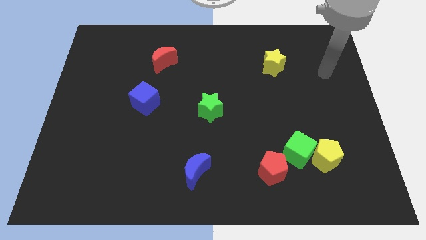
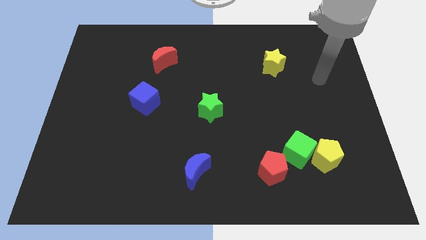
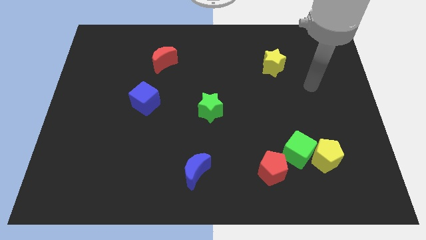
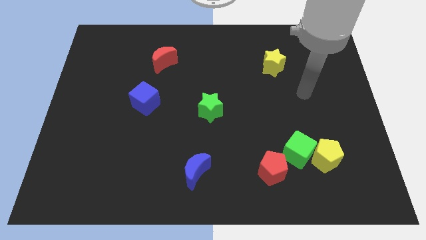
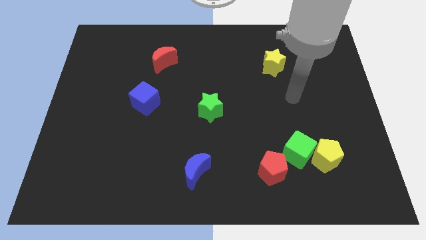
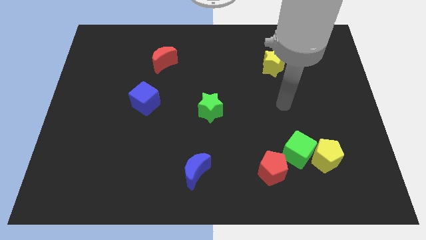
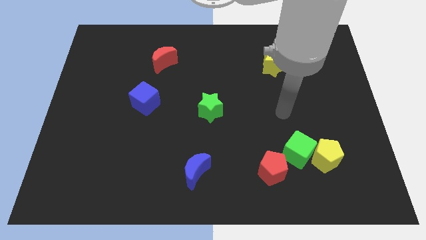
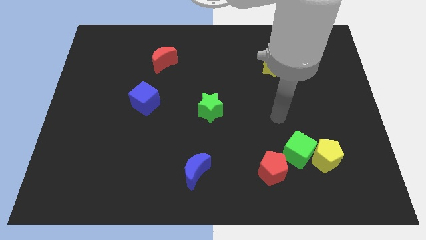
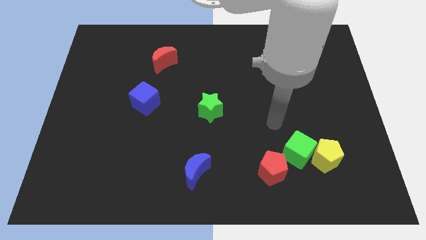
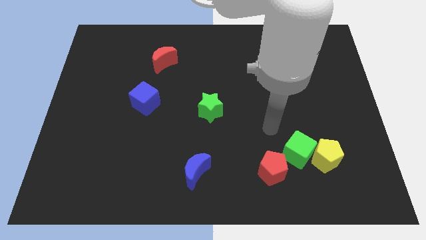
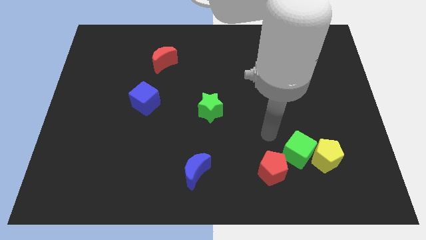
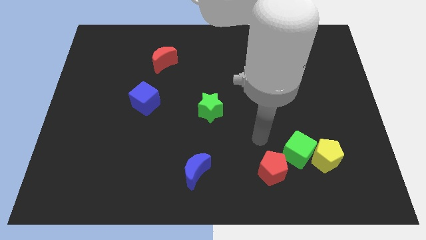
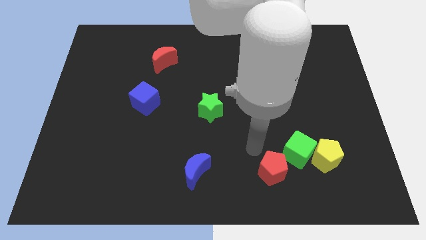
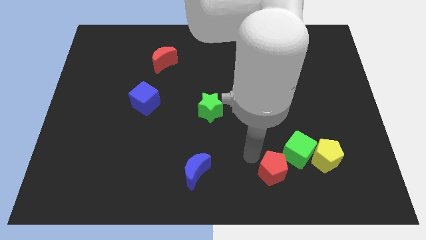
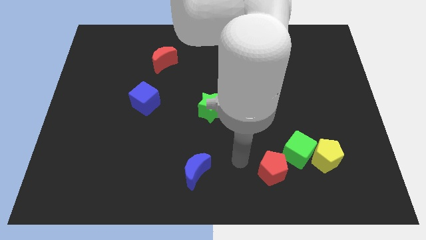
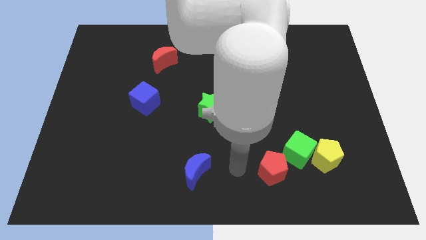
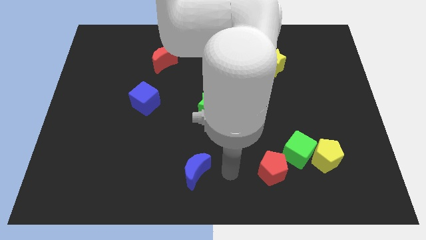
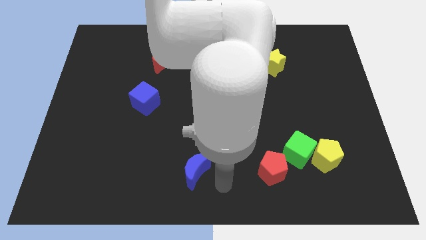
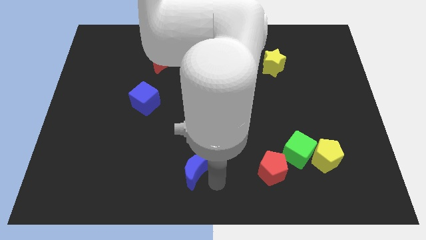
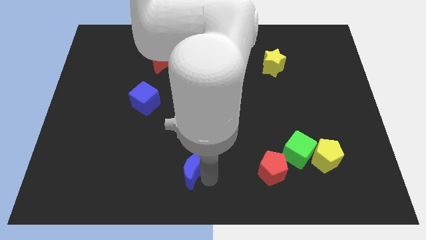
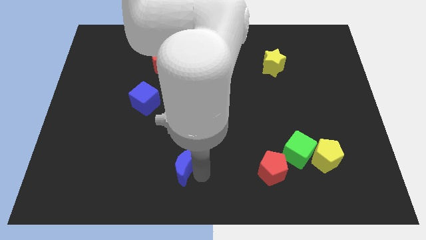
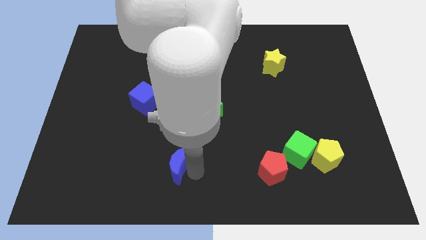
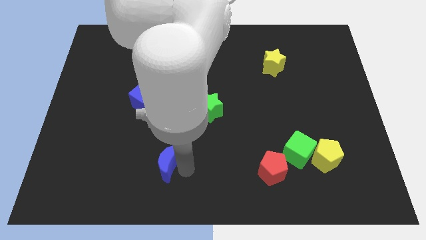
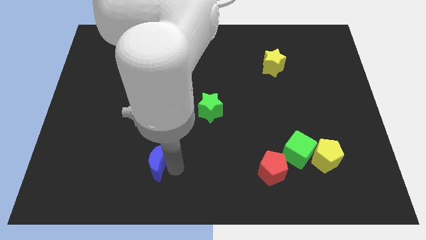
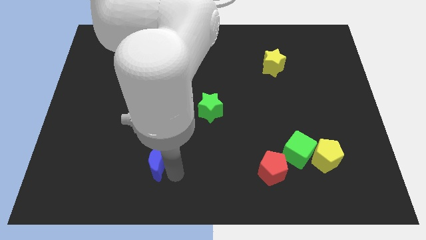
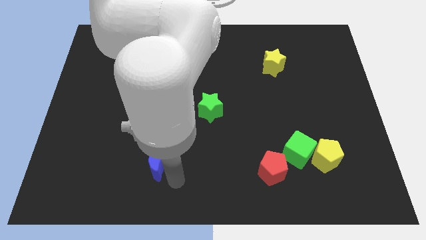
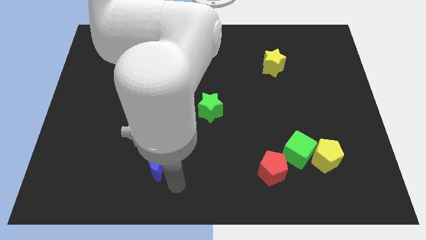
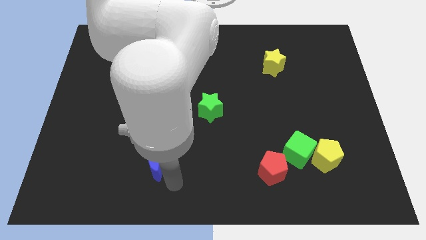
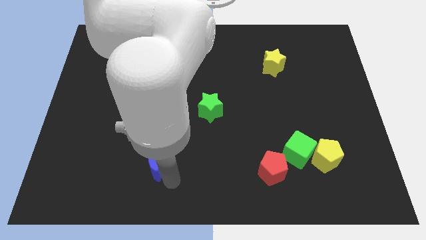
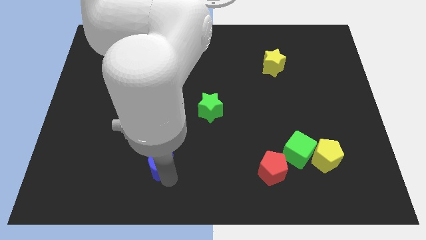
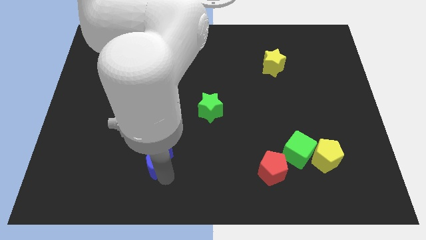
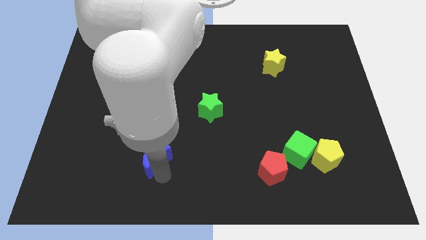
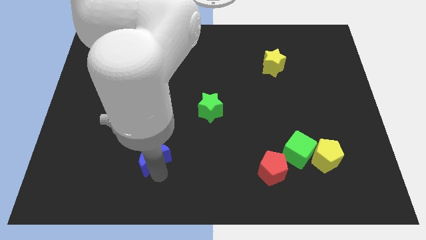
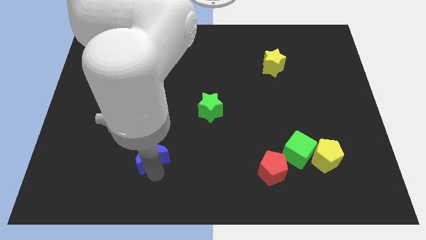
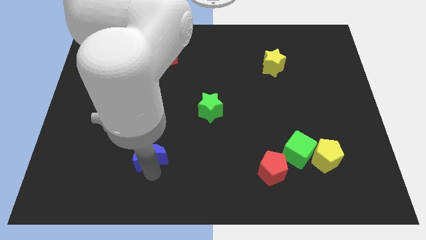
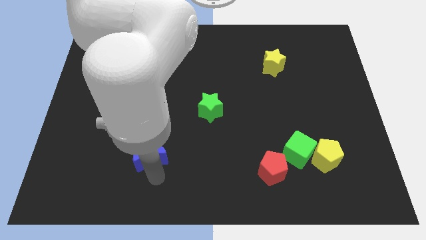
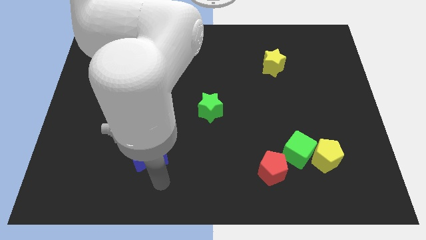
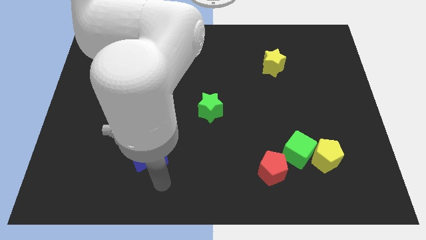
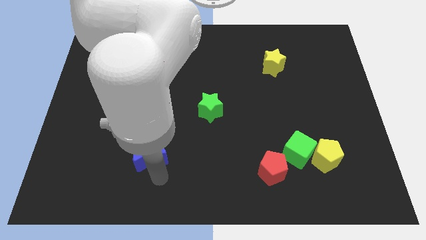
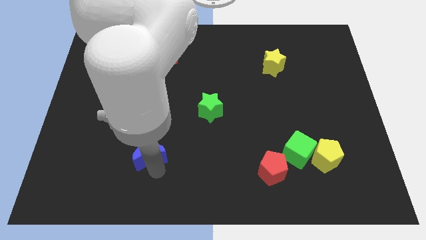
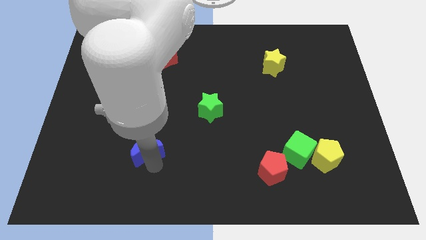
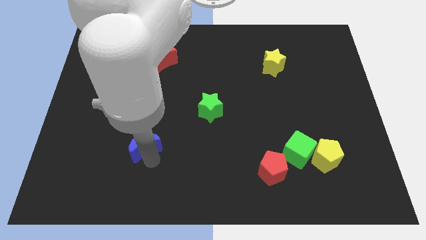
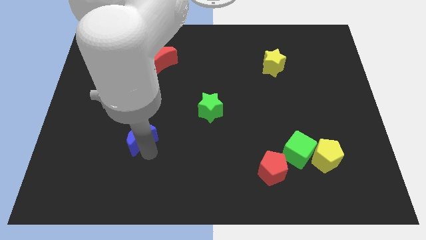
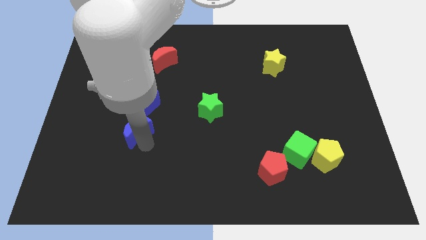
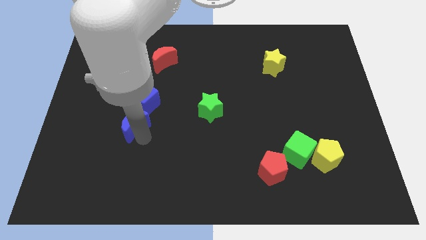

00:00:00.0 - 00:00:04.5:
put the blue moon to the bottom left of the blue cube

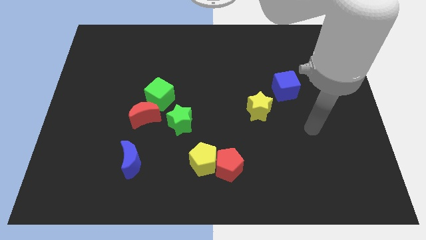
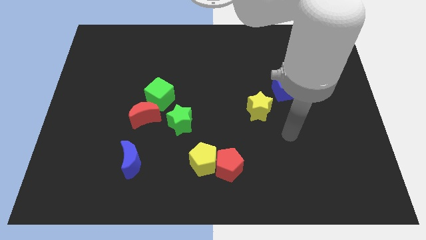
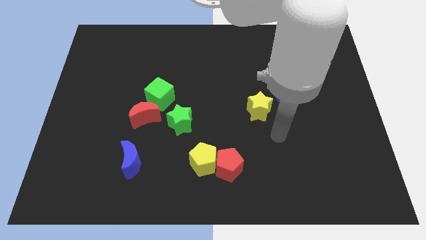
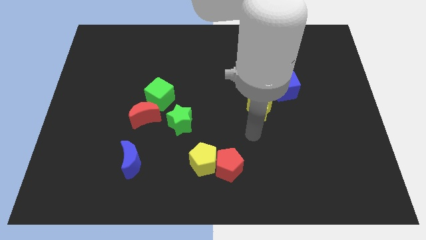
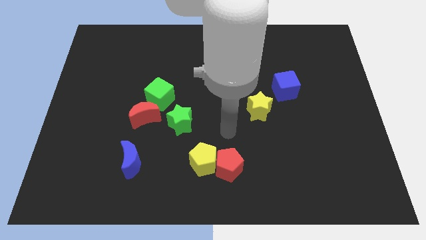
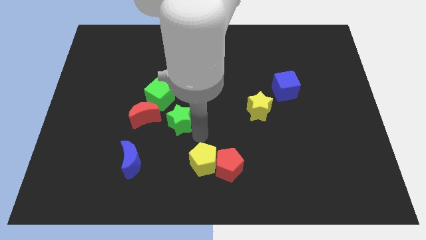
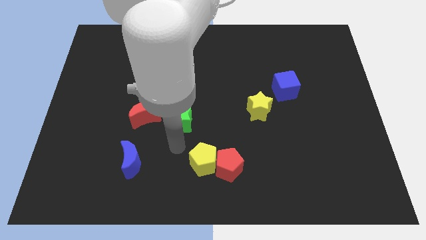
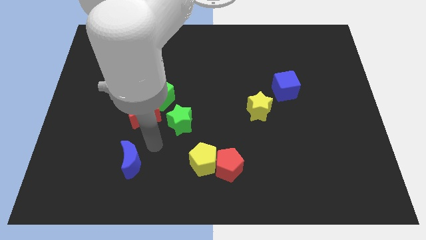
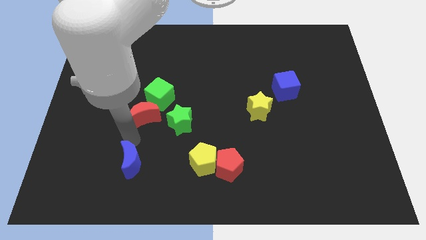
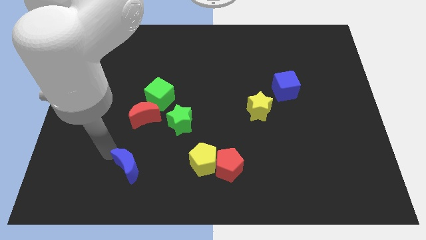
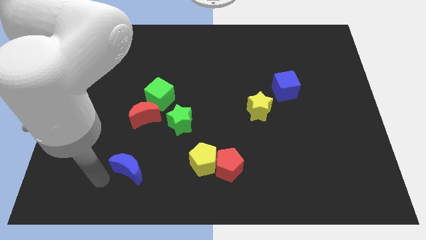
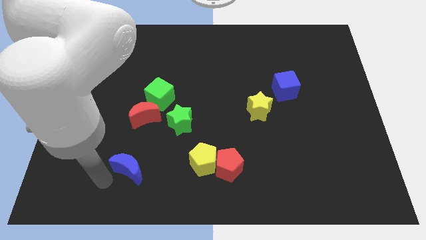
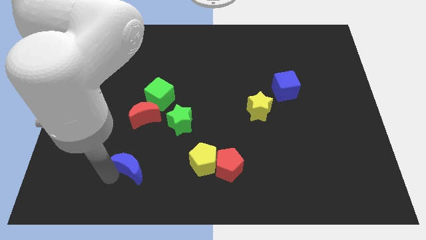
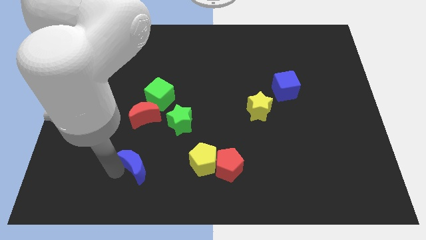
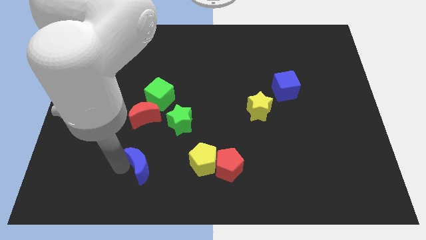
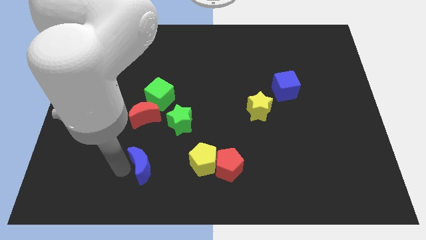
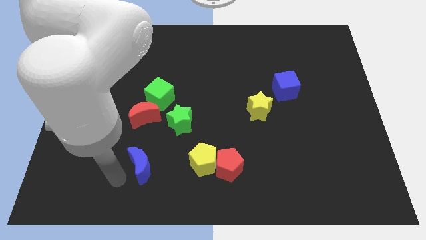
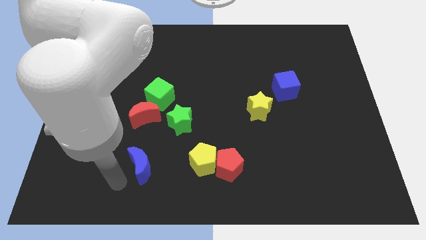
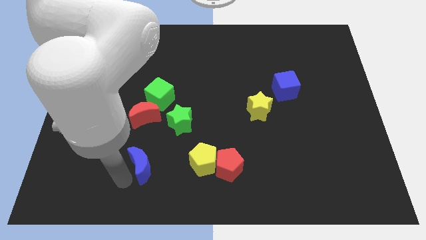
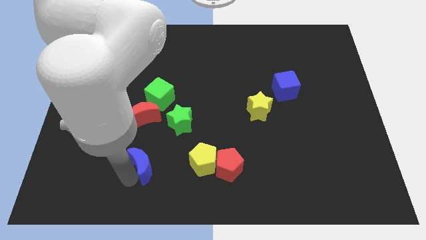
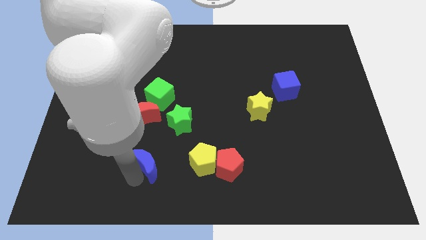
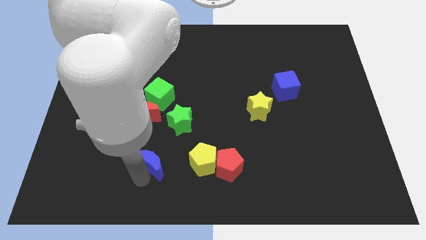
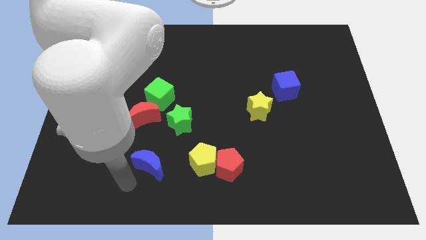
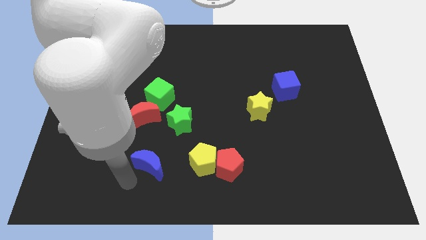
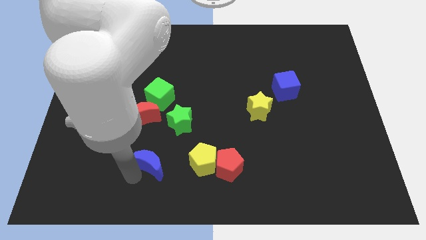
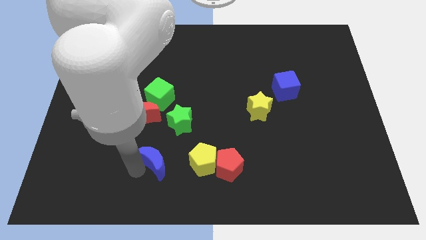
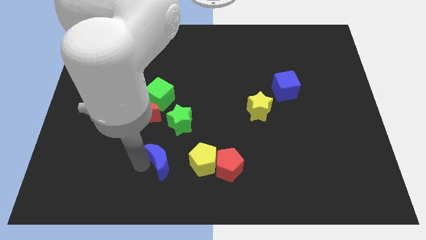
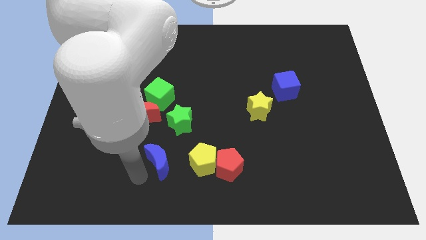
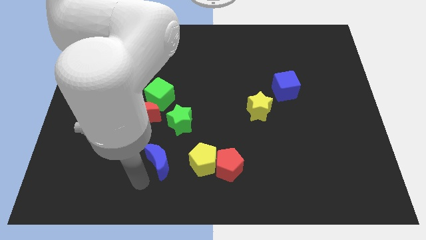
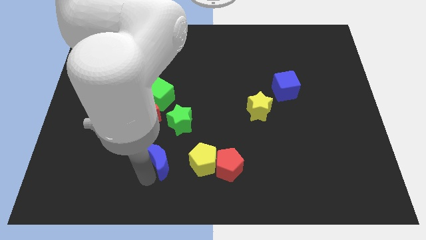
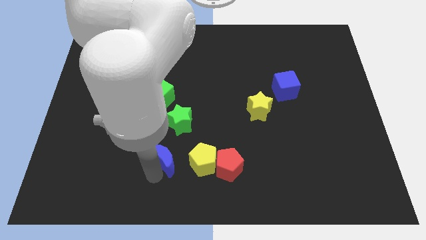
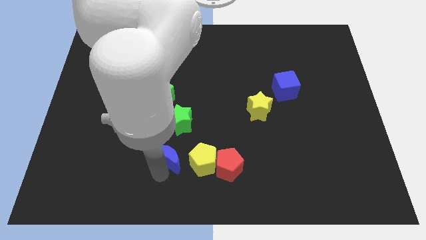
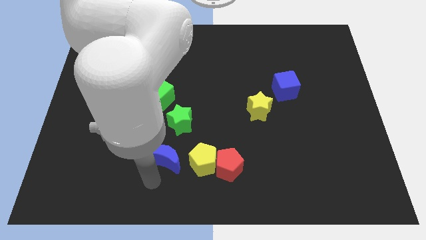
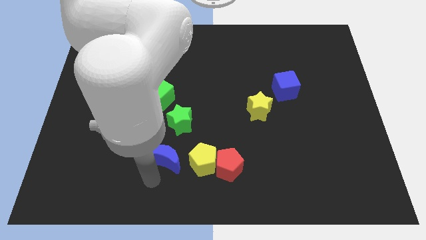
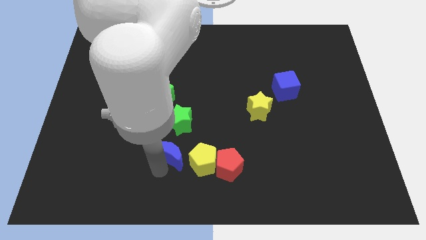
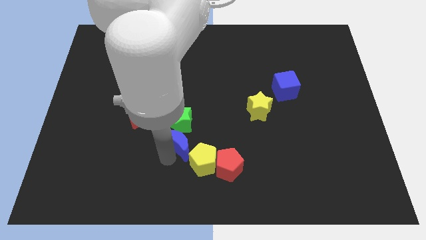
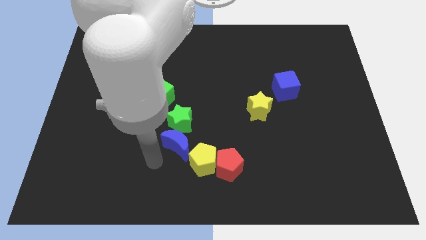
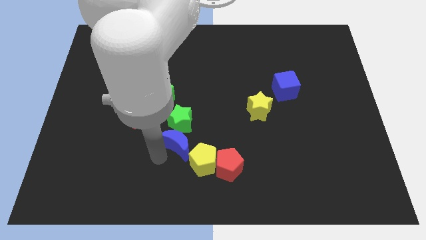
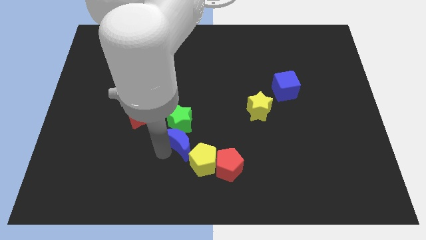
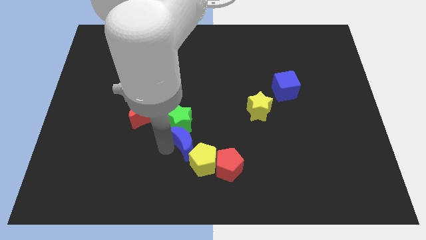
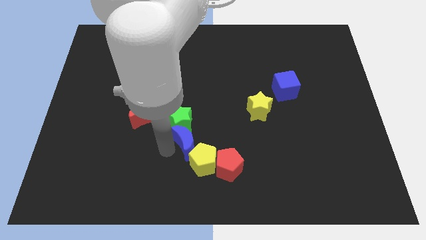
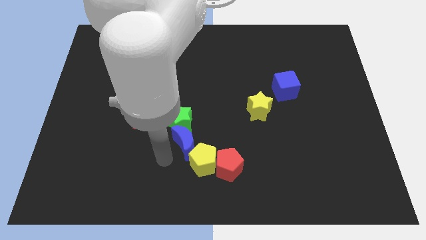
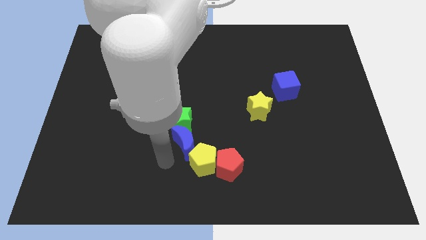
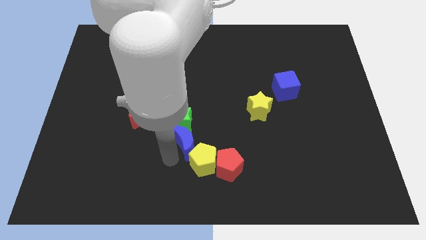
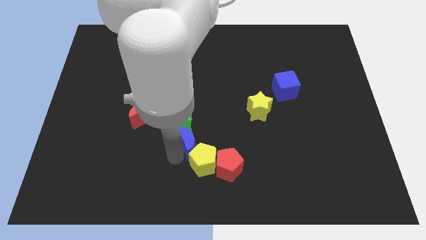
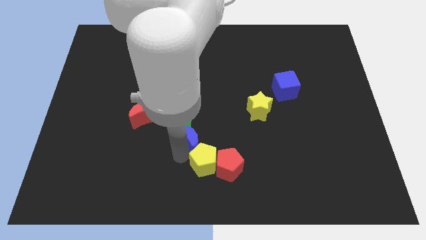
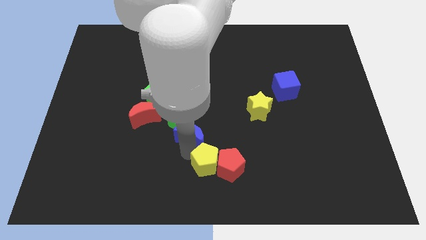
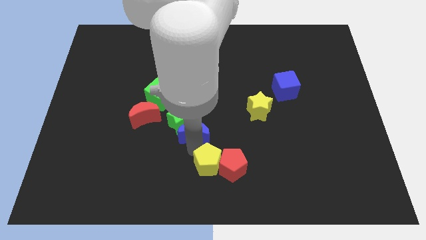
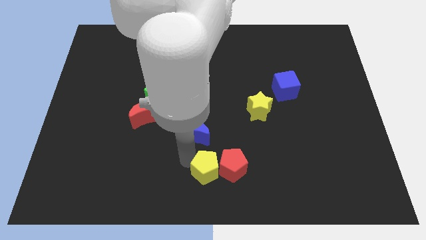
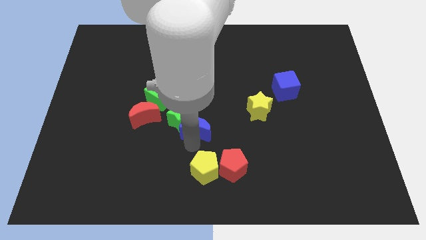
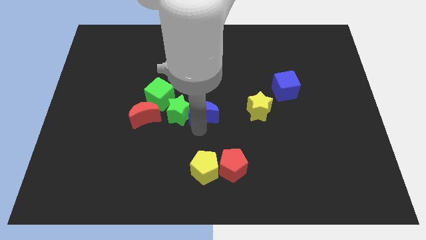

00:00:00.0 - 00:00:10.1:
slide the blue moon to the top right side of the green star
